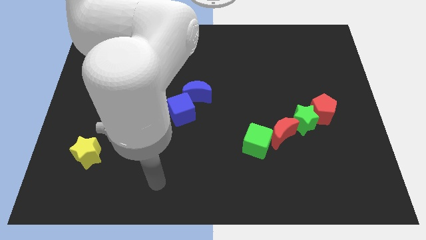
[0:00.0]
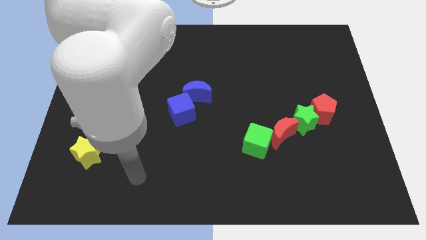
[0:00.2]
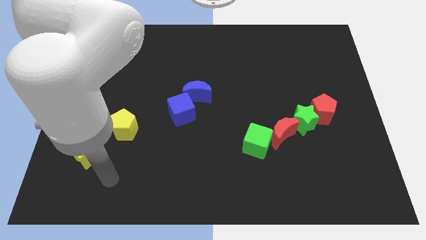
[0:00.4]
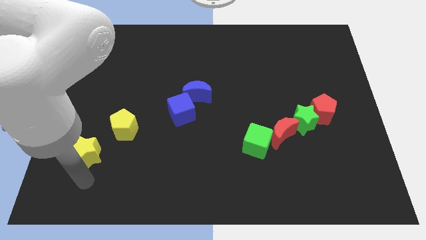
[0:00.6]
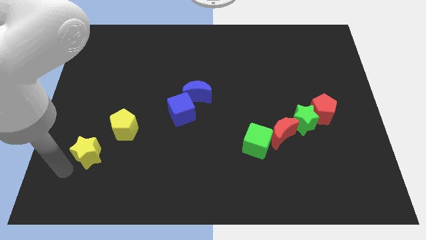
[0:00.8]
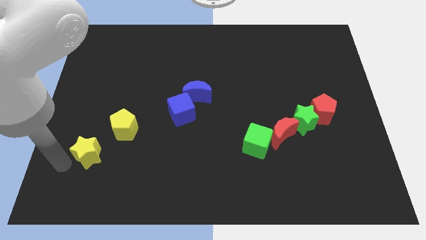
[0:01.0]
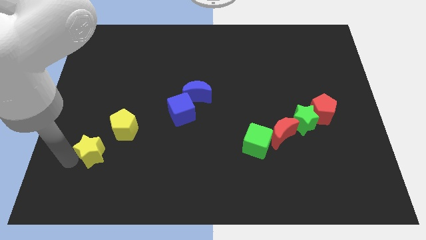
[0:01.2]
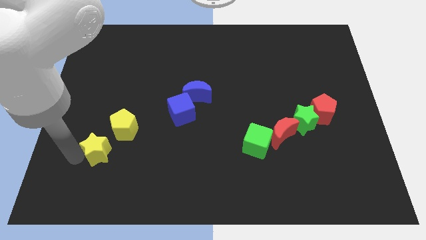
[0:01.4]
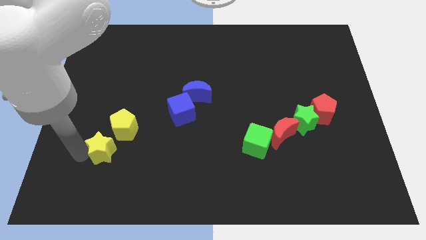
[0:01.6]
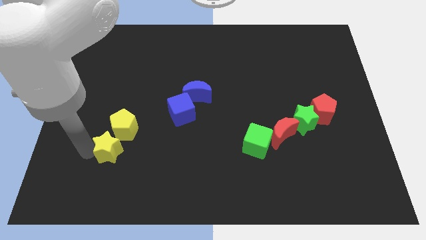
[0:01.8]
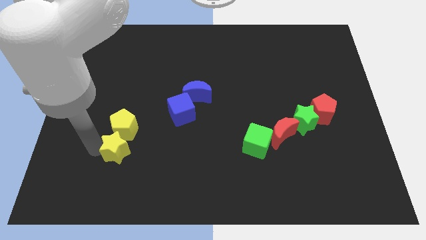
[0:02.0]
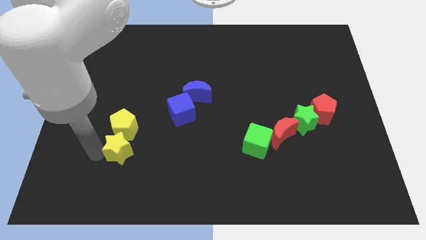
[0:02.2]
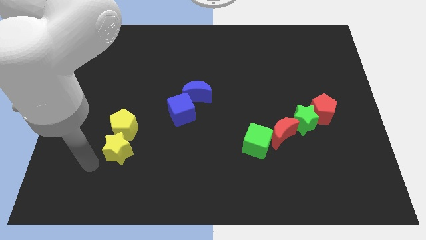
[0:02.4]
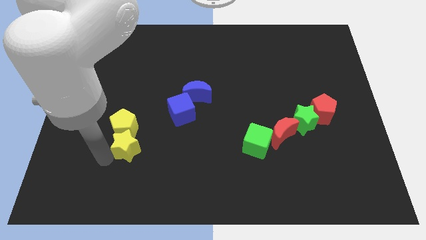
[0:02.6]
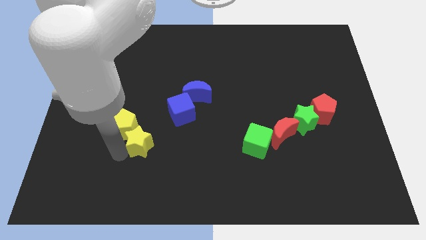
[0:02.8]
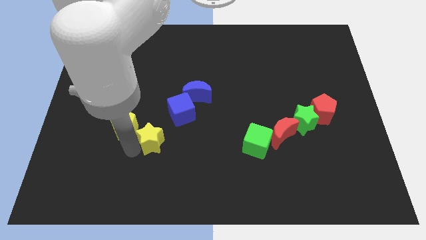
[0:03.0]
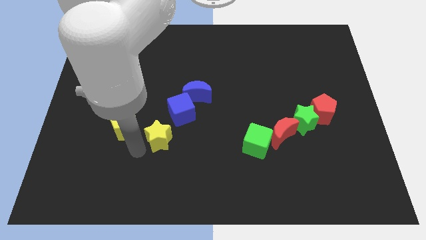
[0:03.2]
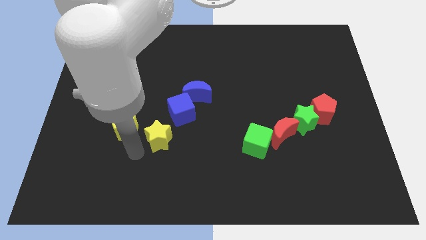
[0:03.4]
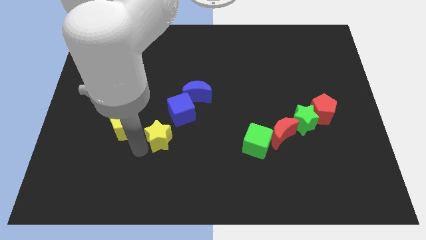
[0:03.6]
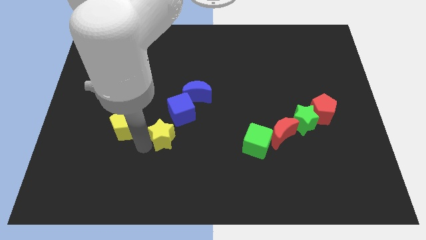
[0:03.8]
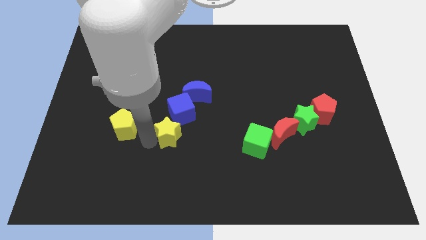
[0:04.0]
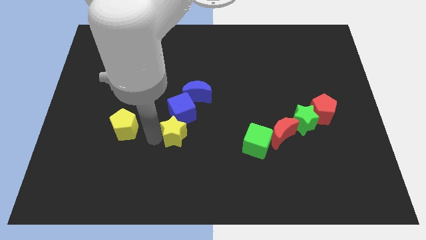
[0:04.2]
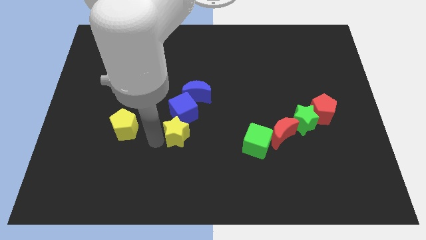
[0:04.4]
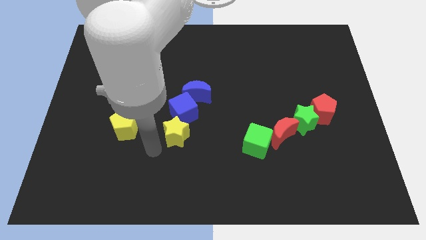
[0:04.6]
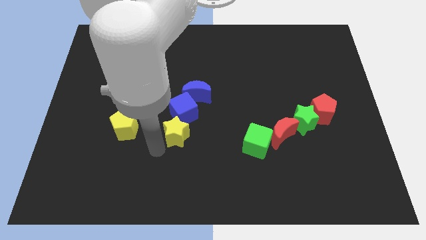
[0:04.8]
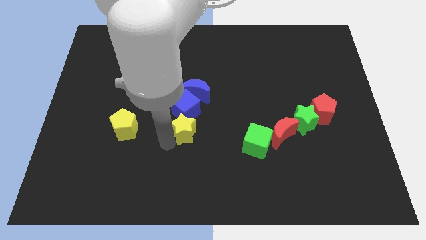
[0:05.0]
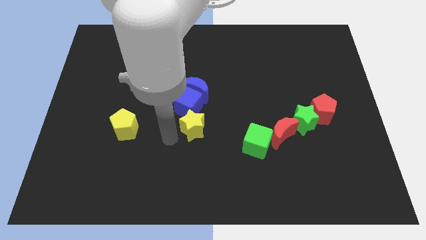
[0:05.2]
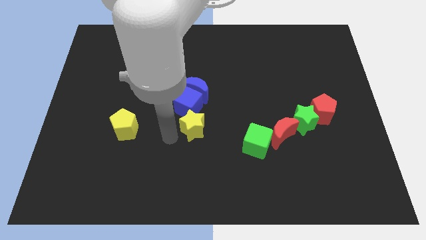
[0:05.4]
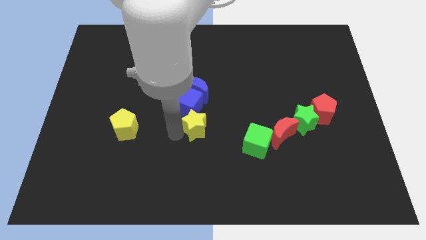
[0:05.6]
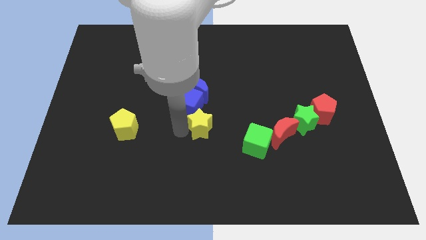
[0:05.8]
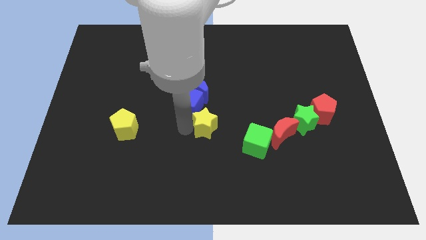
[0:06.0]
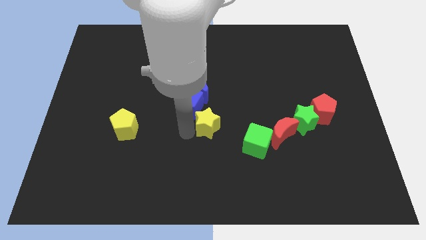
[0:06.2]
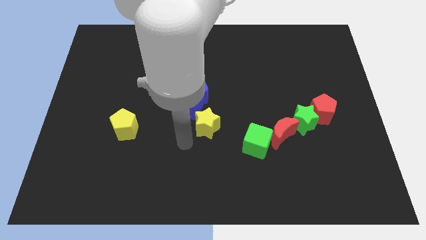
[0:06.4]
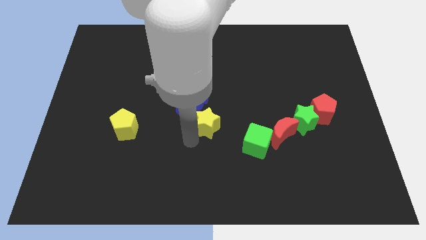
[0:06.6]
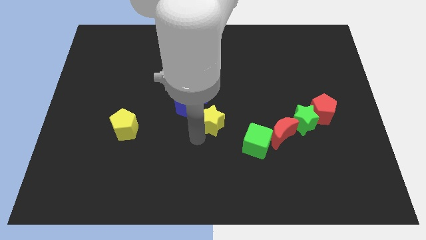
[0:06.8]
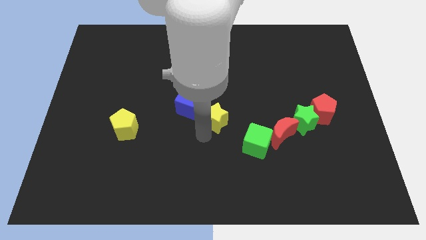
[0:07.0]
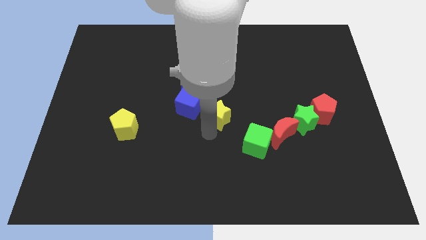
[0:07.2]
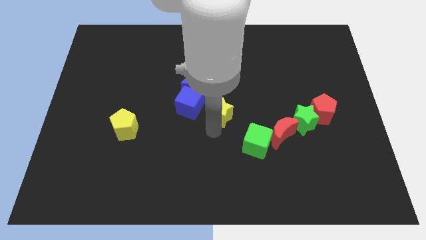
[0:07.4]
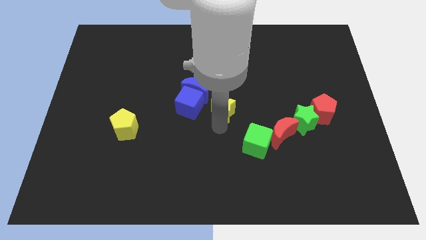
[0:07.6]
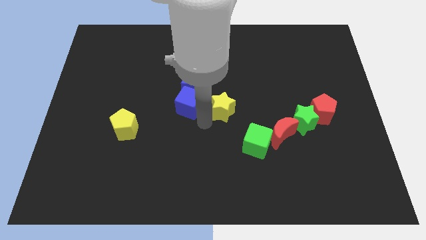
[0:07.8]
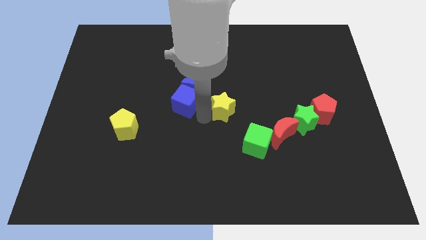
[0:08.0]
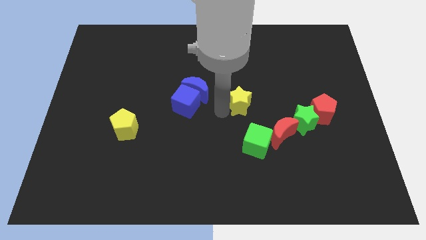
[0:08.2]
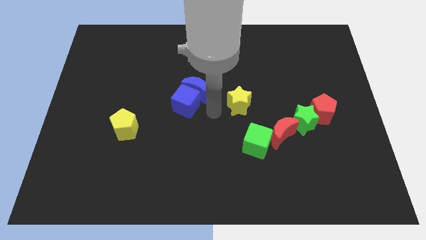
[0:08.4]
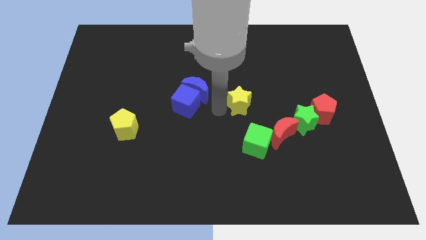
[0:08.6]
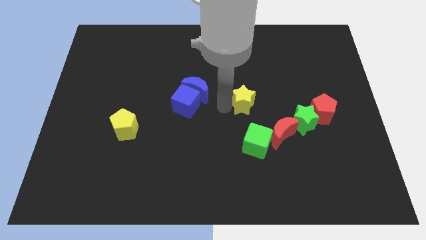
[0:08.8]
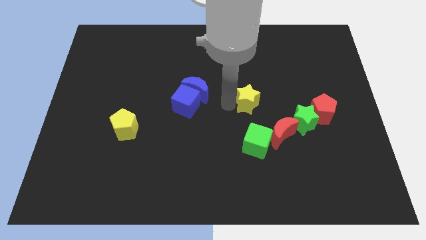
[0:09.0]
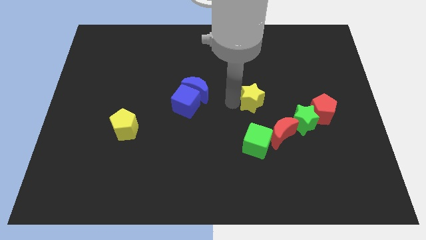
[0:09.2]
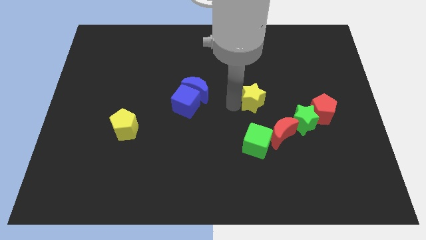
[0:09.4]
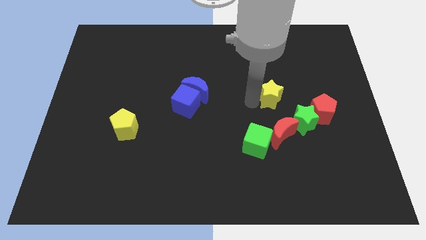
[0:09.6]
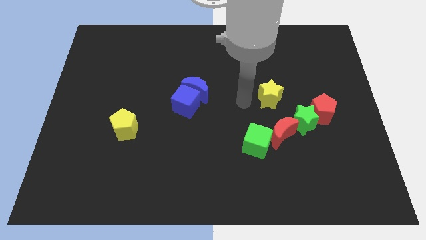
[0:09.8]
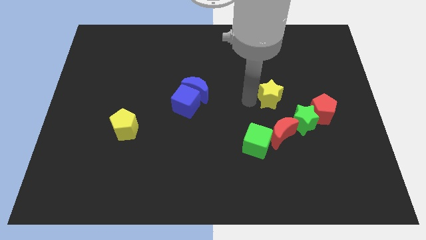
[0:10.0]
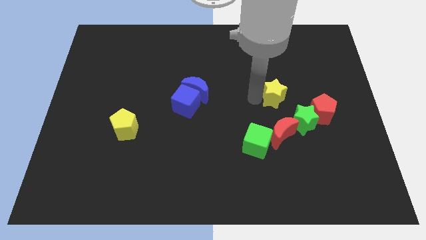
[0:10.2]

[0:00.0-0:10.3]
move the yellow star to the top left of the red pentagon

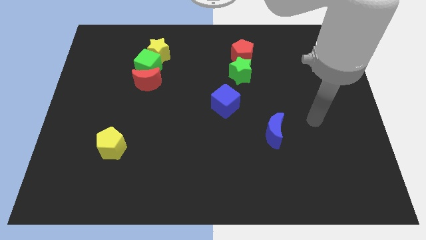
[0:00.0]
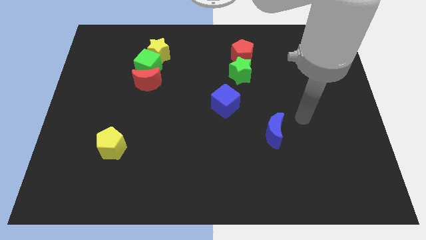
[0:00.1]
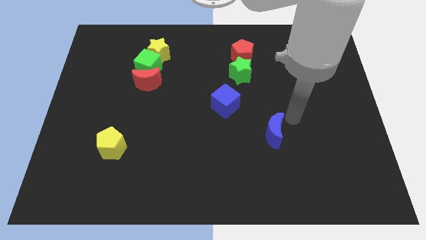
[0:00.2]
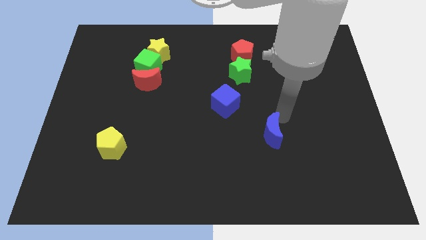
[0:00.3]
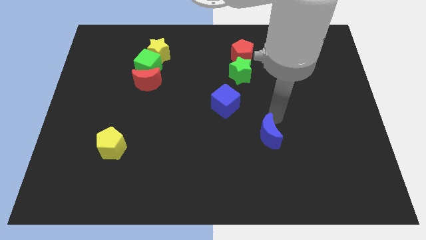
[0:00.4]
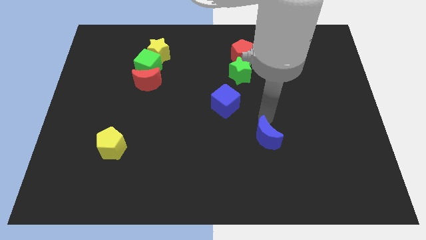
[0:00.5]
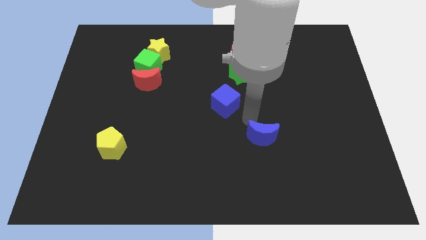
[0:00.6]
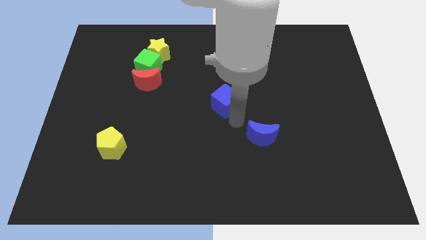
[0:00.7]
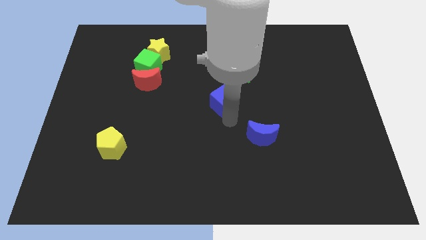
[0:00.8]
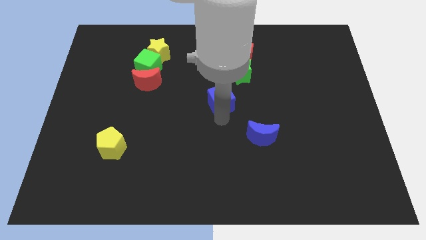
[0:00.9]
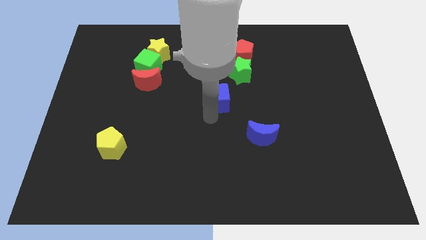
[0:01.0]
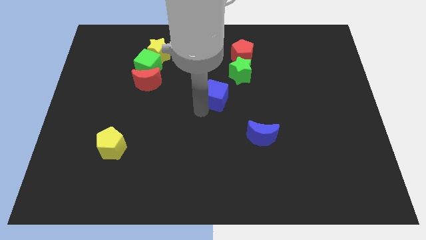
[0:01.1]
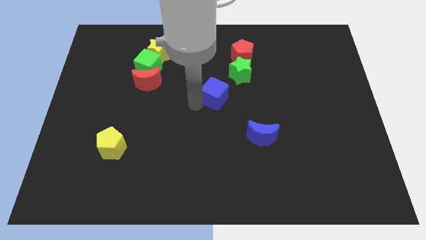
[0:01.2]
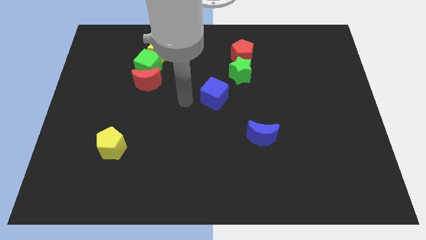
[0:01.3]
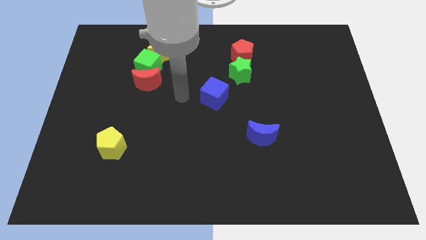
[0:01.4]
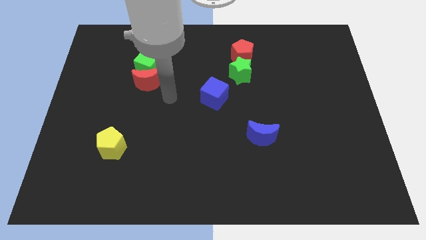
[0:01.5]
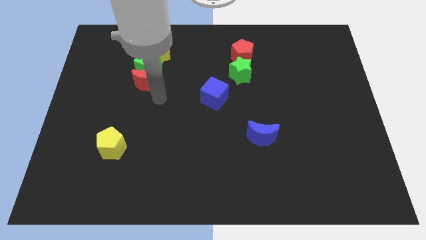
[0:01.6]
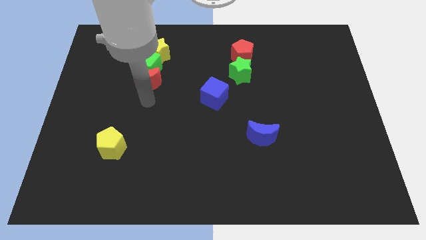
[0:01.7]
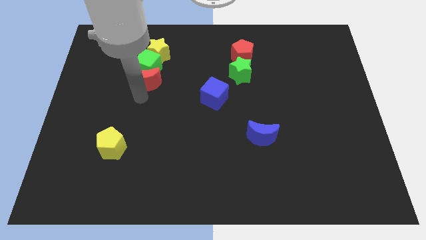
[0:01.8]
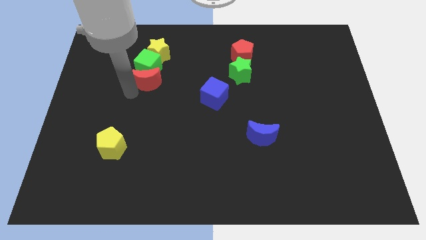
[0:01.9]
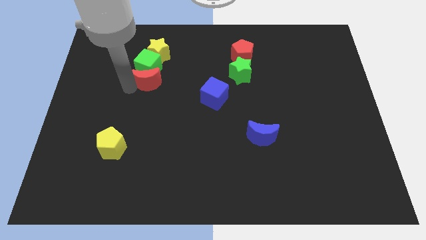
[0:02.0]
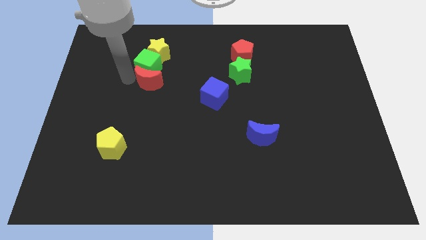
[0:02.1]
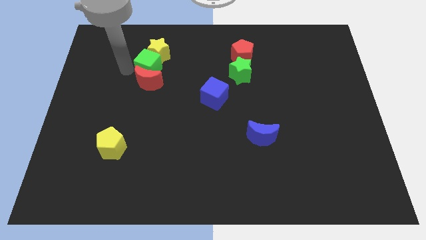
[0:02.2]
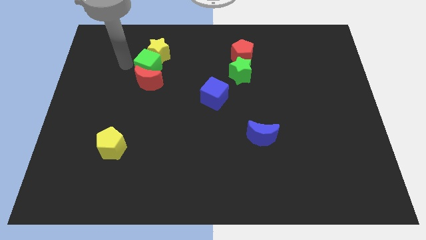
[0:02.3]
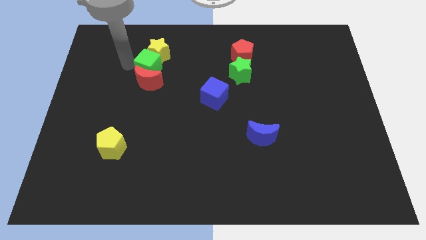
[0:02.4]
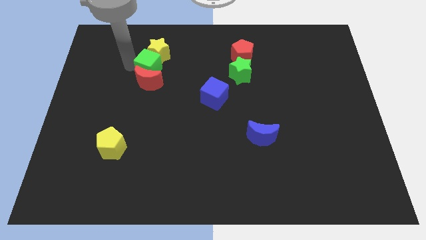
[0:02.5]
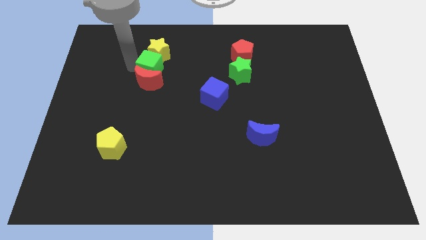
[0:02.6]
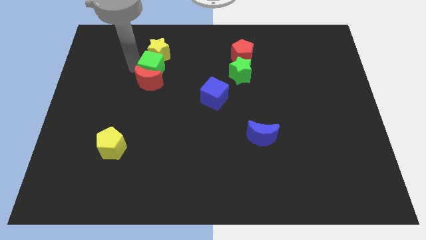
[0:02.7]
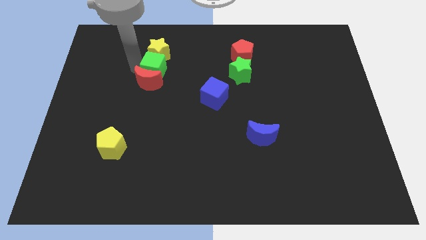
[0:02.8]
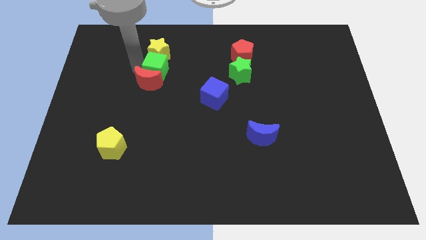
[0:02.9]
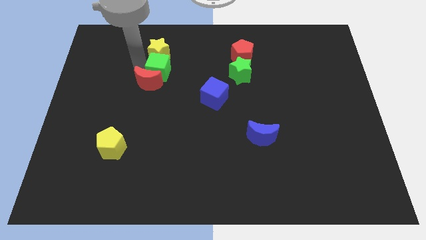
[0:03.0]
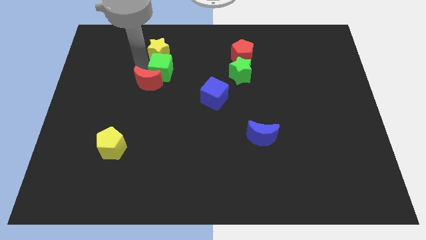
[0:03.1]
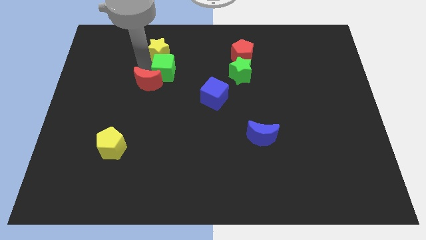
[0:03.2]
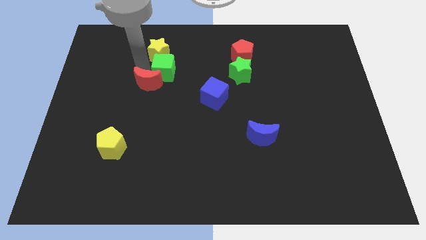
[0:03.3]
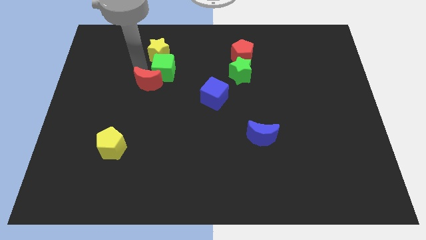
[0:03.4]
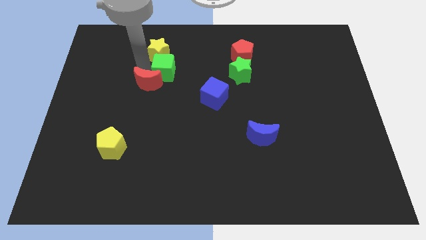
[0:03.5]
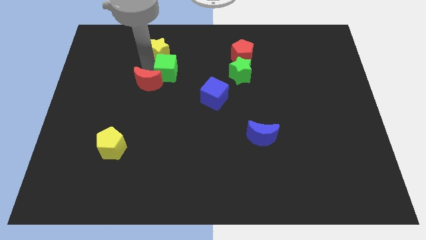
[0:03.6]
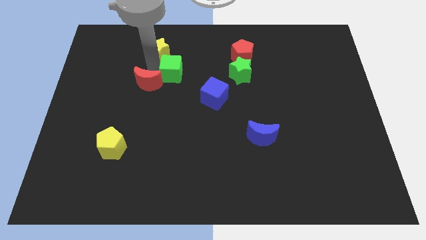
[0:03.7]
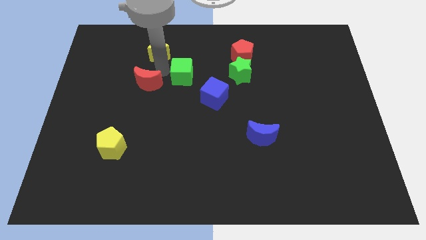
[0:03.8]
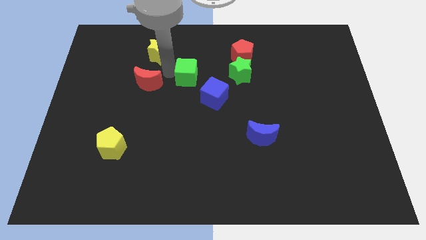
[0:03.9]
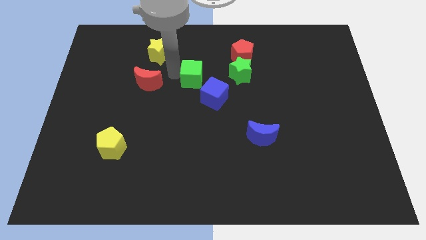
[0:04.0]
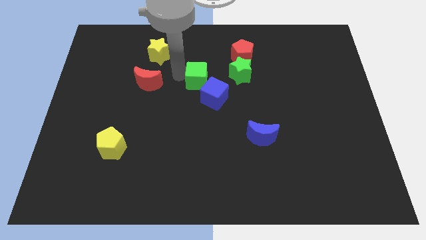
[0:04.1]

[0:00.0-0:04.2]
slide the green cube to the top side of the blue cube
